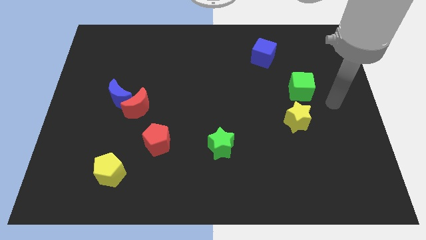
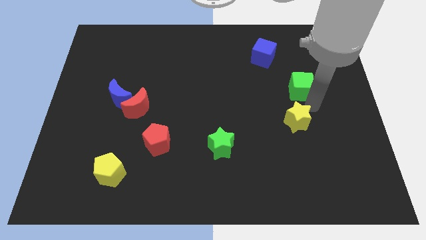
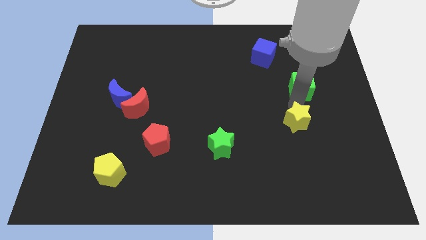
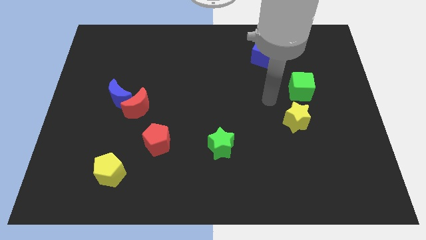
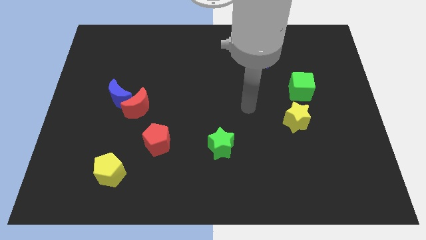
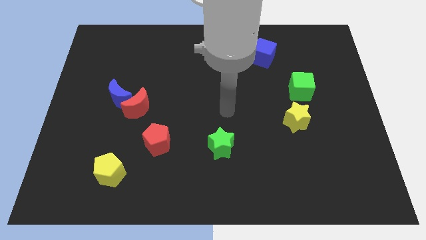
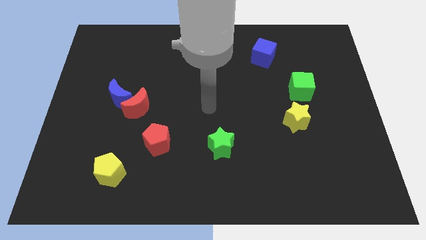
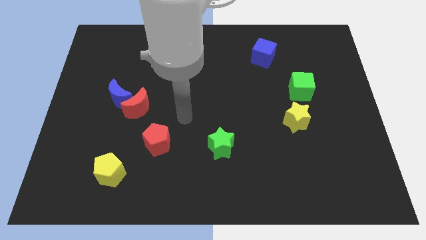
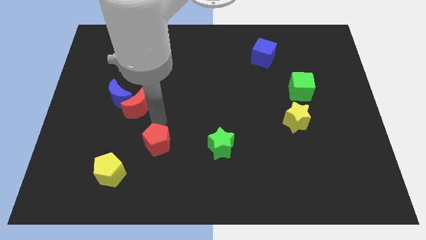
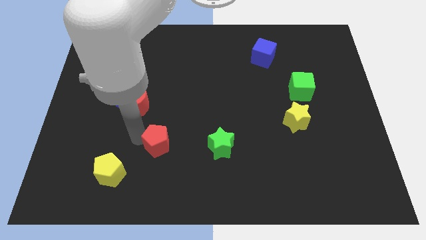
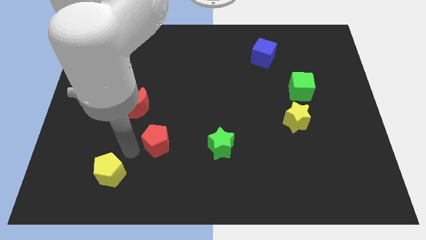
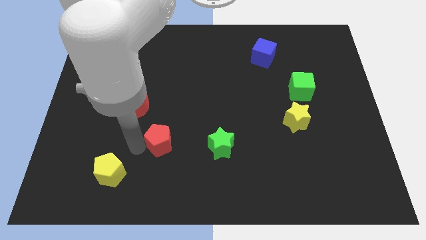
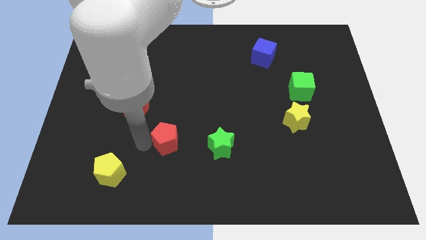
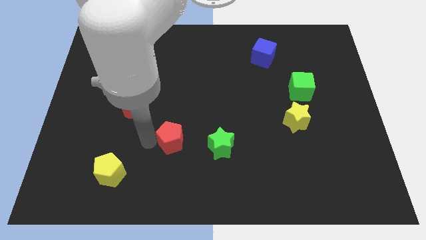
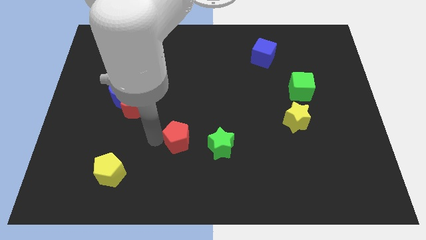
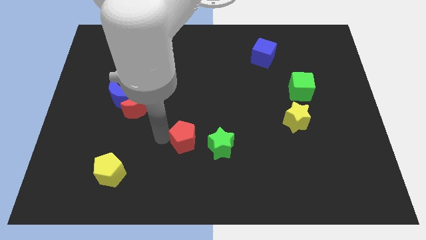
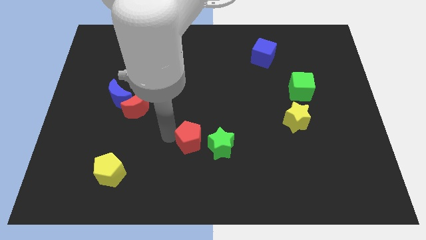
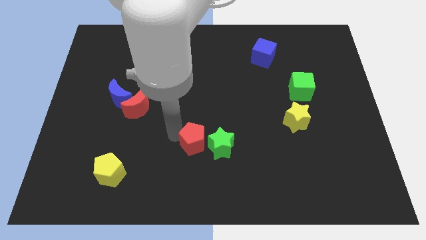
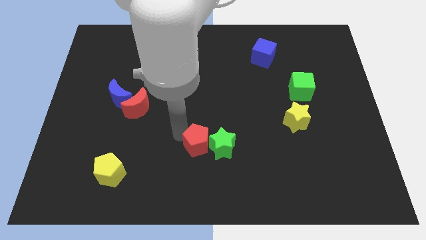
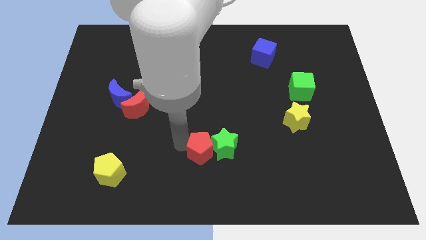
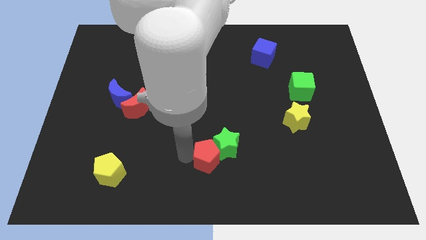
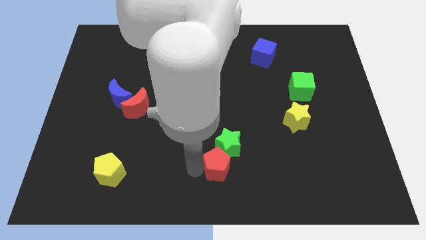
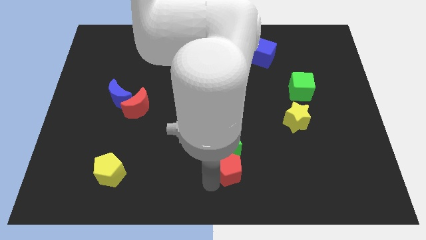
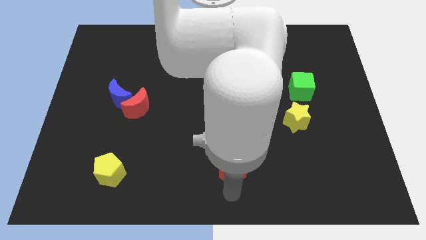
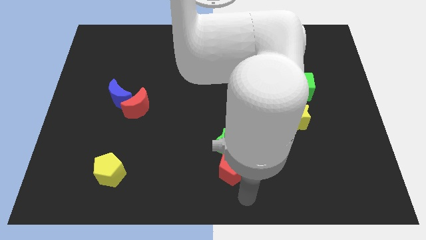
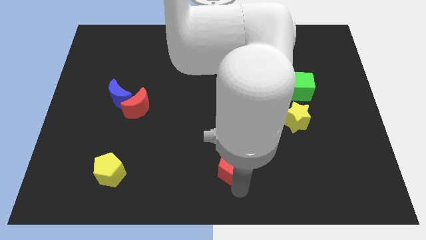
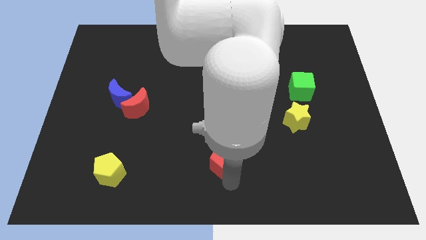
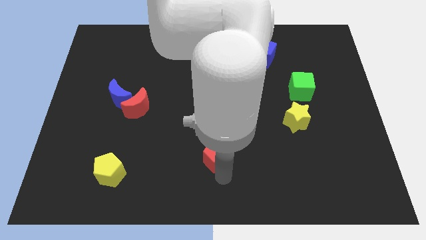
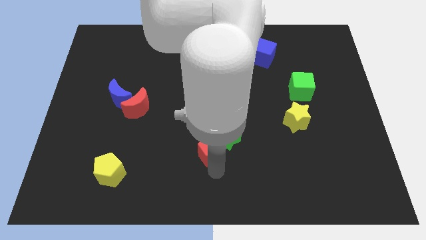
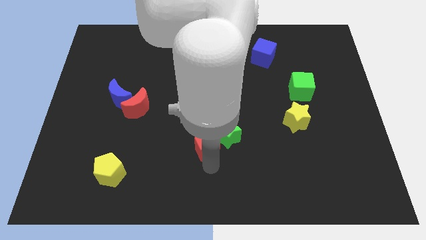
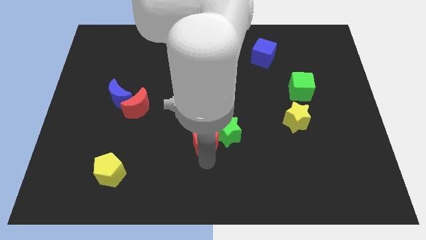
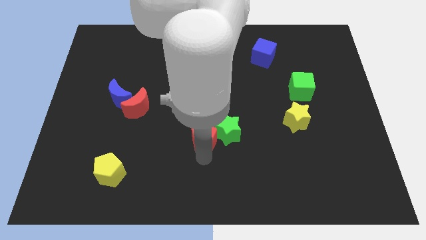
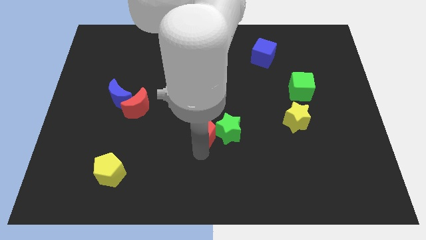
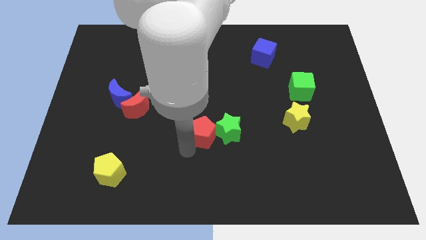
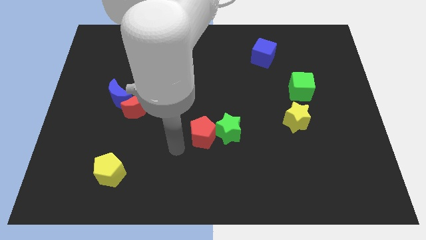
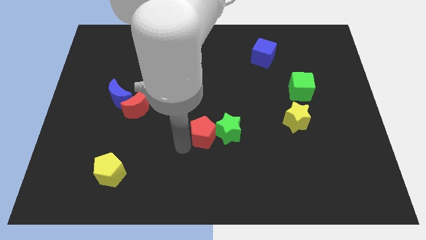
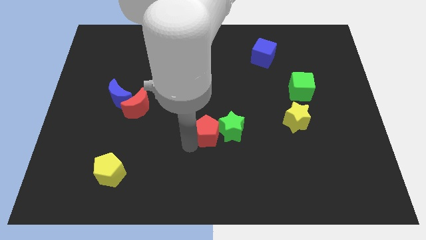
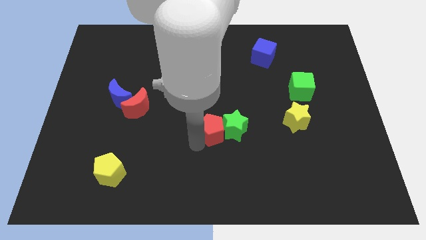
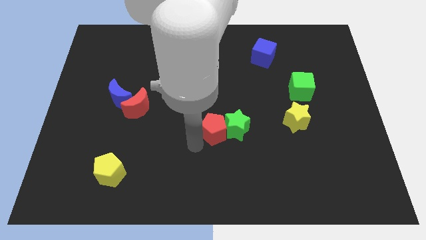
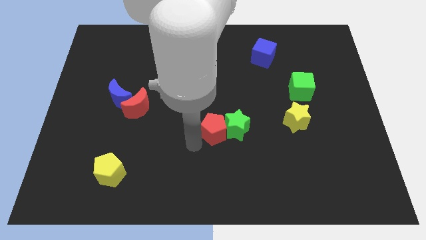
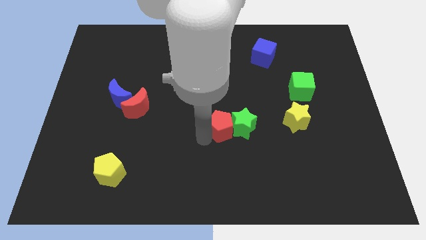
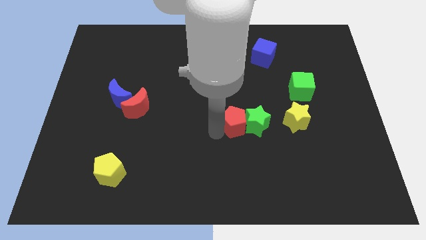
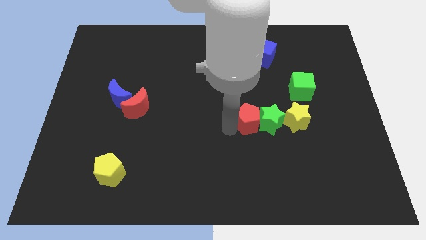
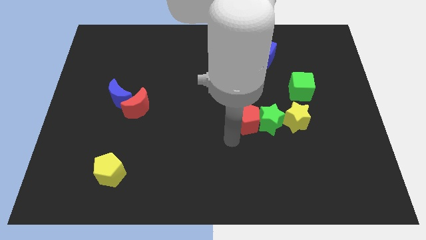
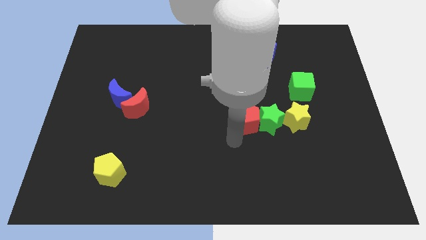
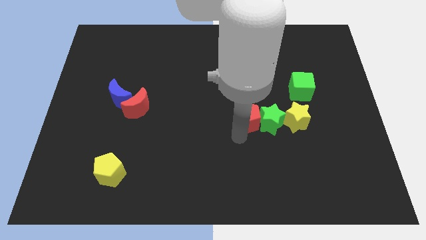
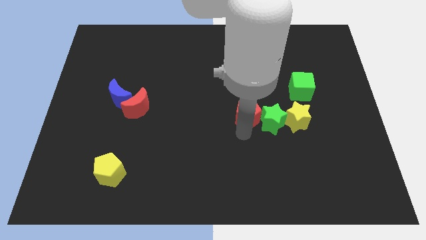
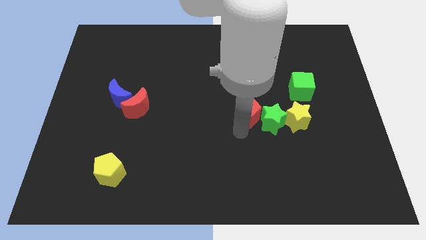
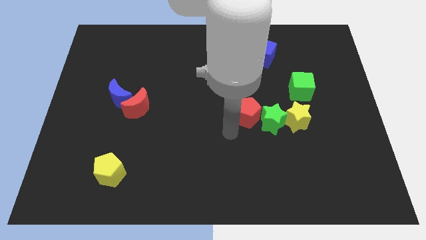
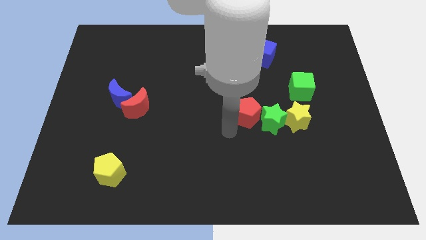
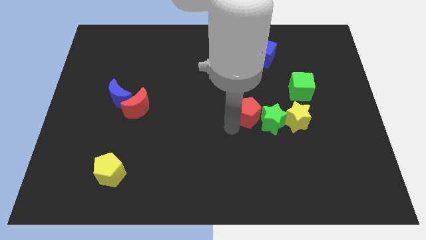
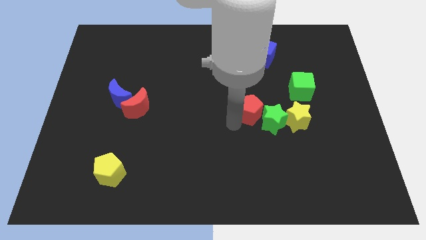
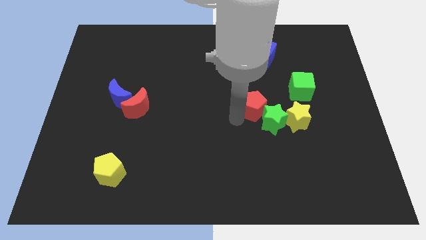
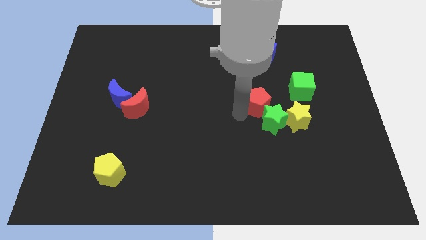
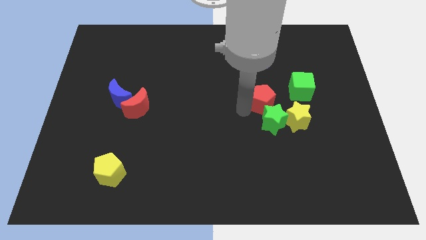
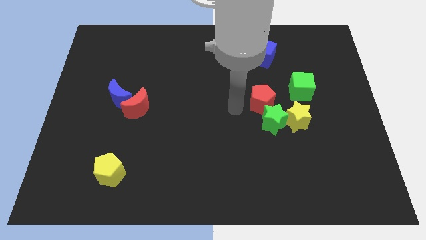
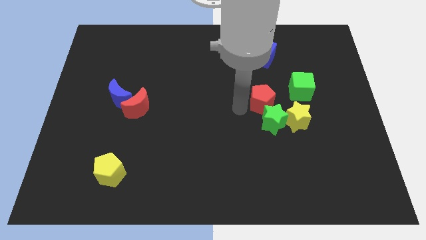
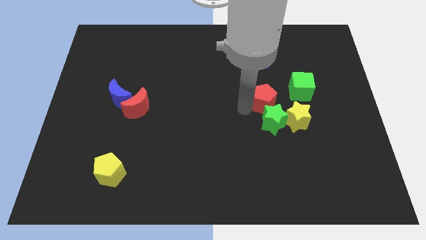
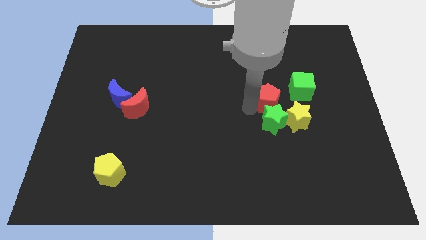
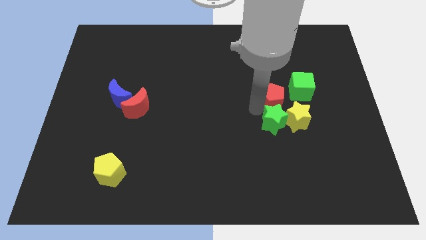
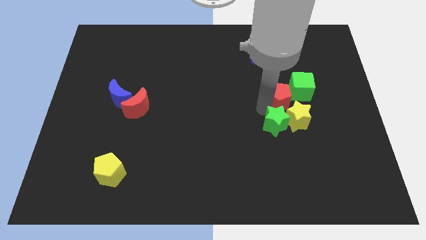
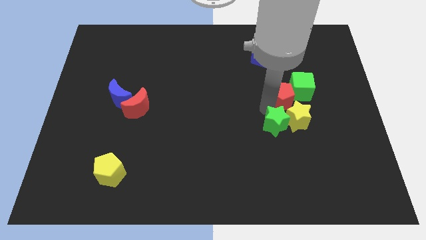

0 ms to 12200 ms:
move the red pentagon towards the green cube

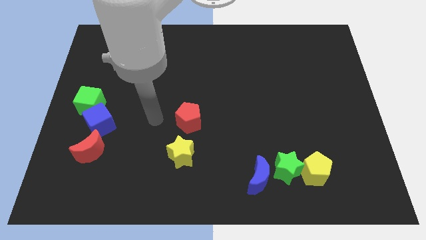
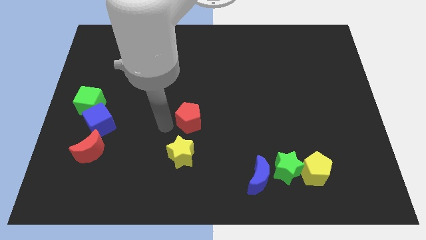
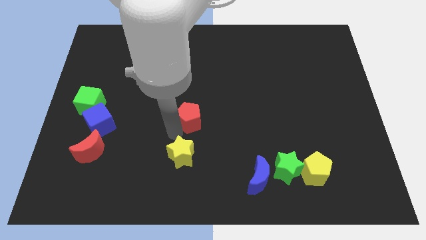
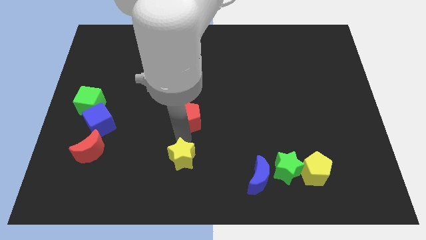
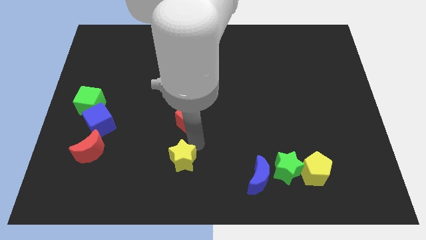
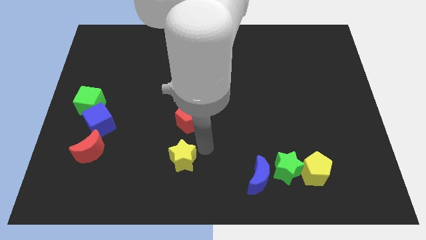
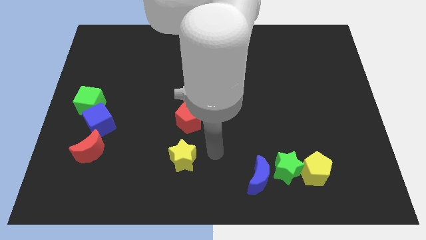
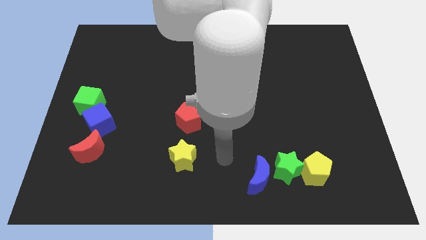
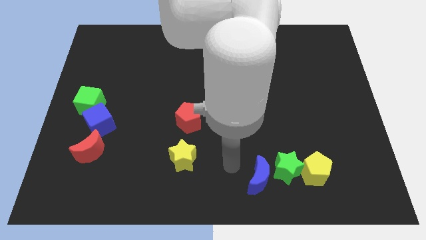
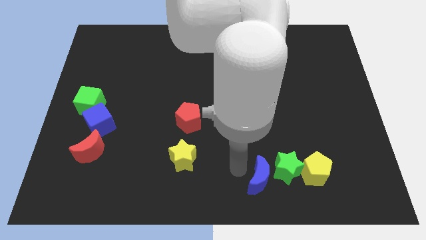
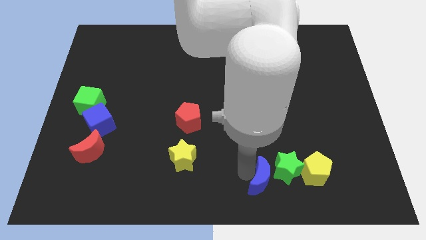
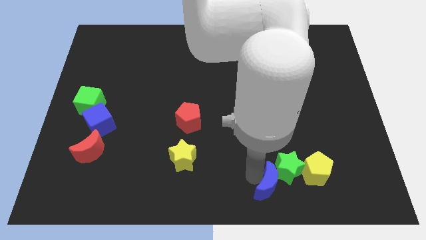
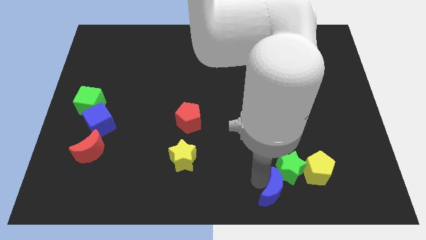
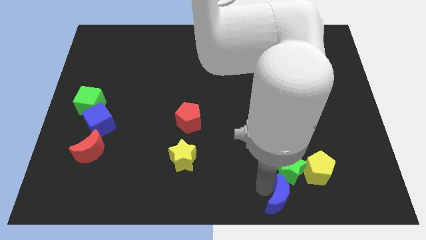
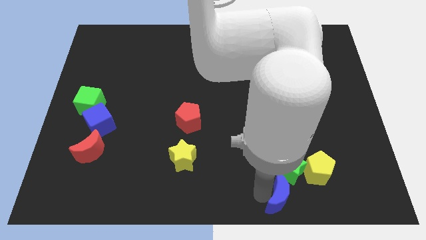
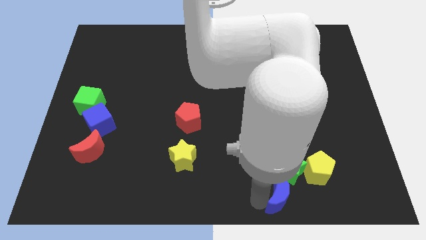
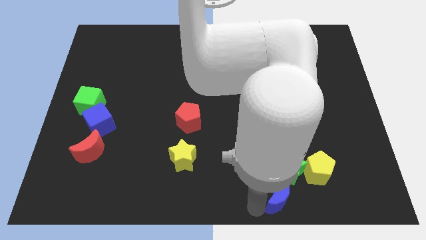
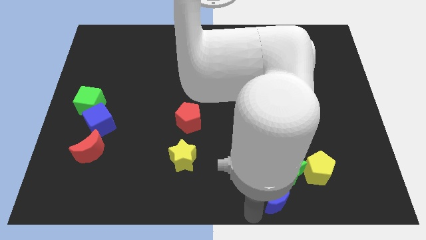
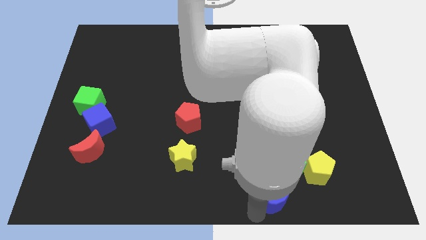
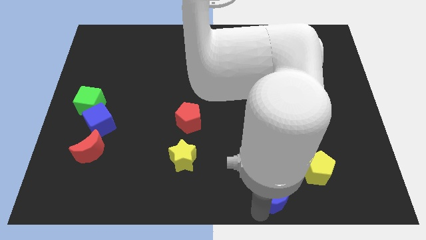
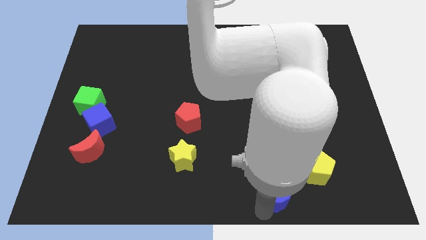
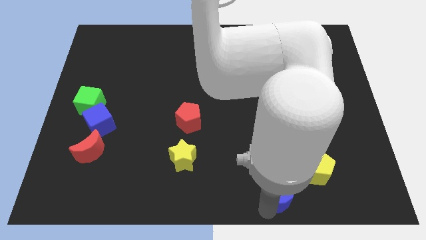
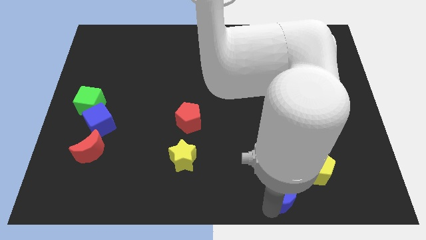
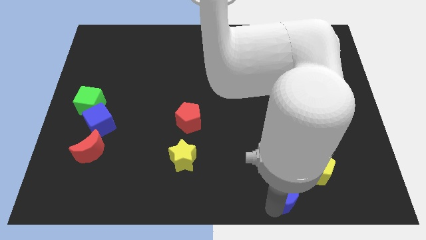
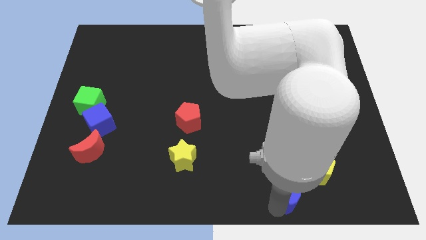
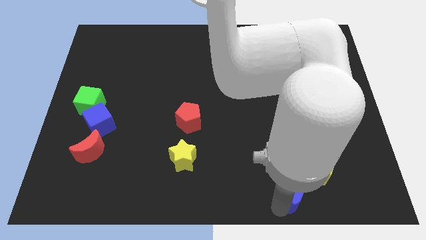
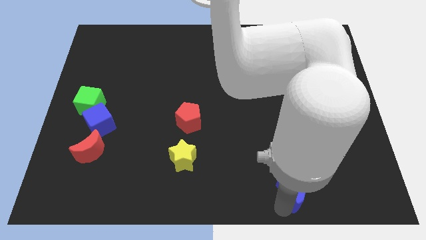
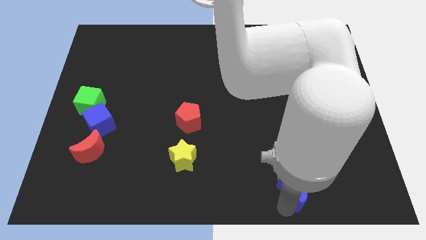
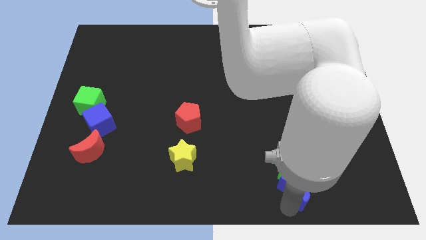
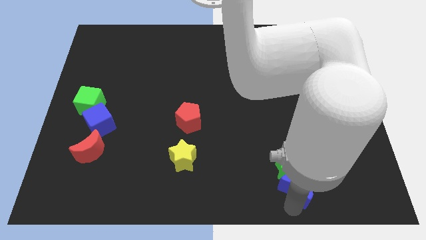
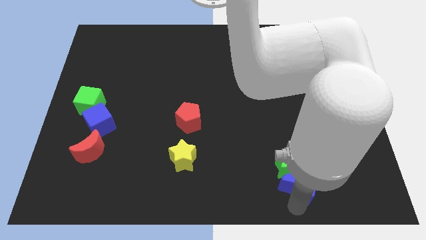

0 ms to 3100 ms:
slide the blue moon to the yellow pentagon
